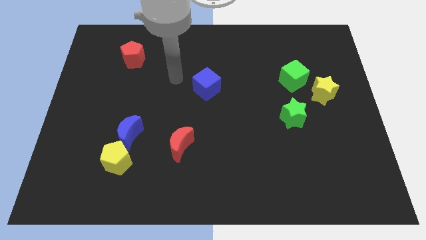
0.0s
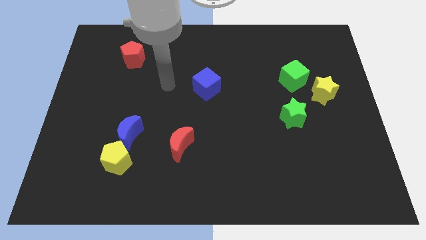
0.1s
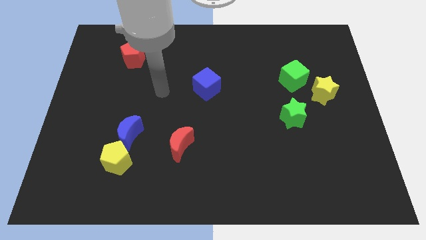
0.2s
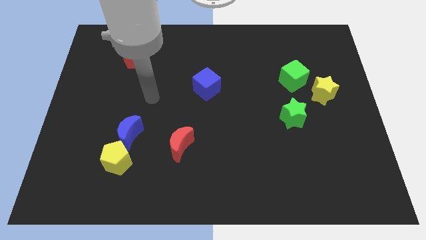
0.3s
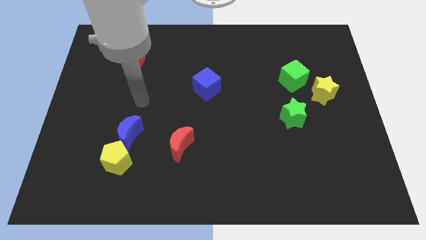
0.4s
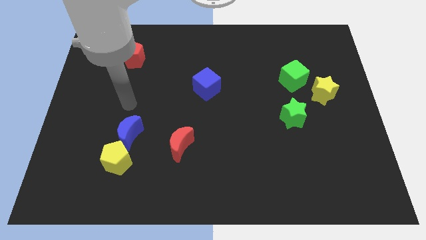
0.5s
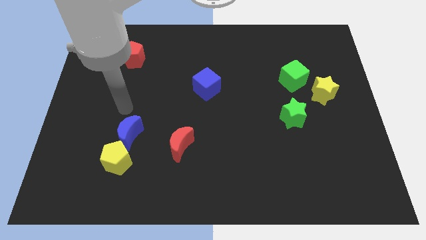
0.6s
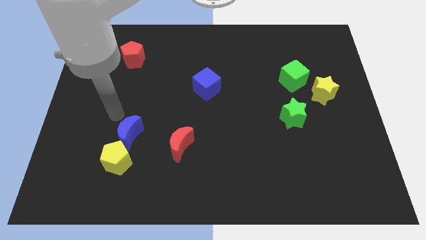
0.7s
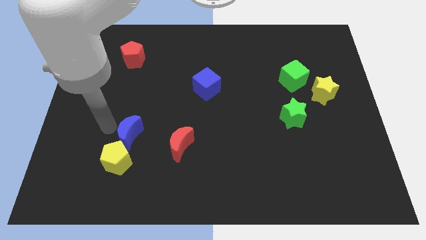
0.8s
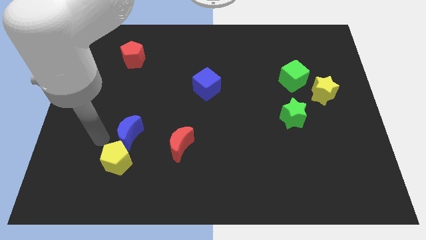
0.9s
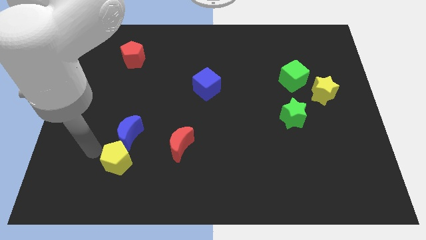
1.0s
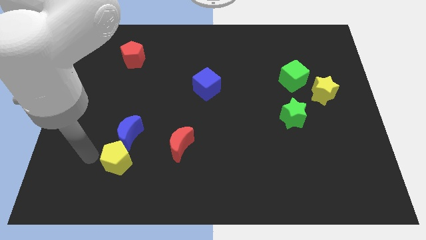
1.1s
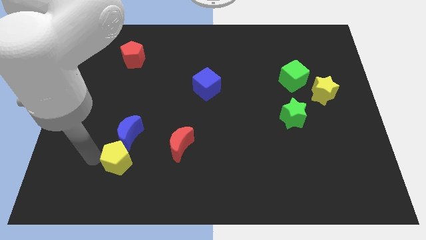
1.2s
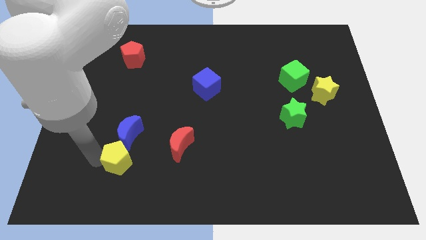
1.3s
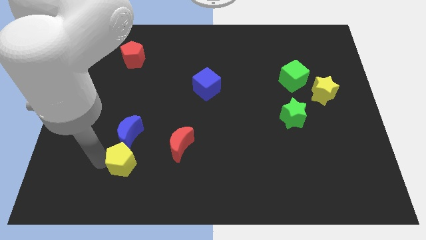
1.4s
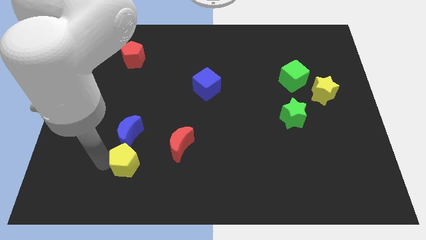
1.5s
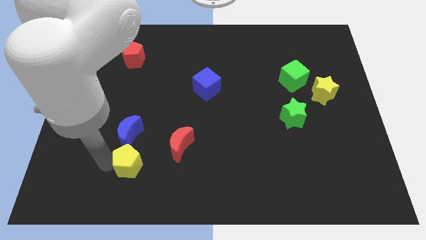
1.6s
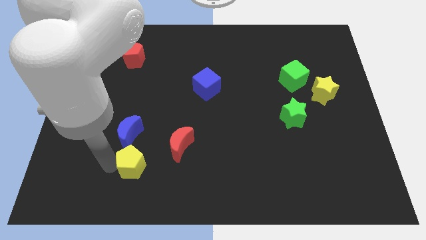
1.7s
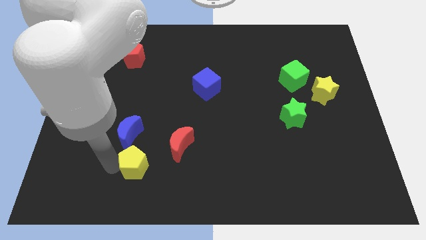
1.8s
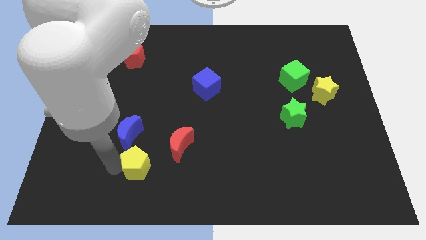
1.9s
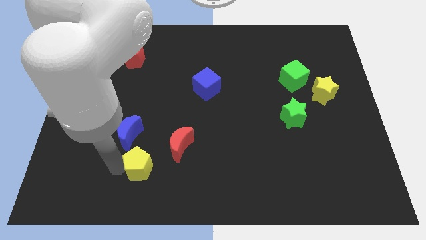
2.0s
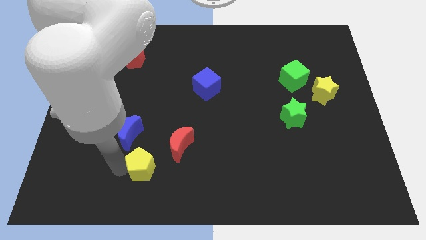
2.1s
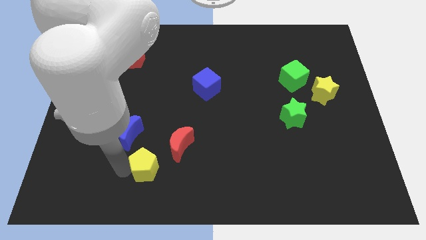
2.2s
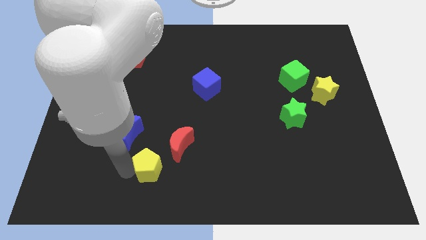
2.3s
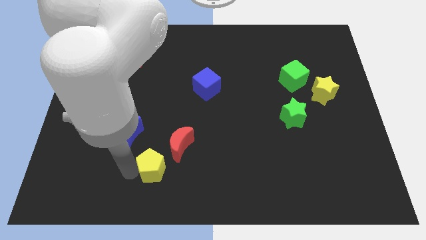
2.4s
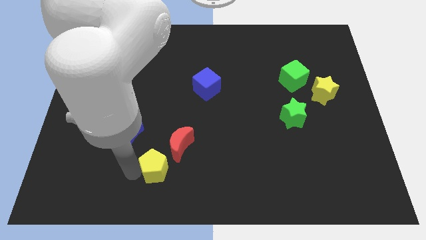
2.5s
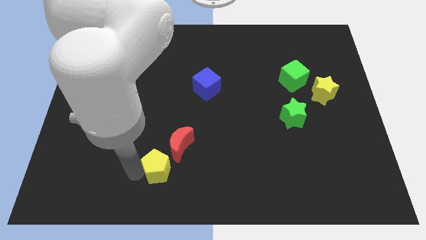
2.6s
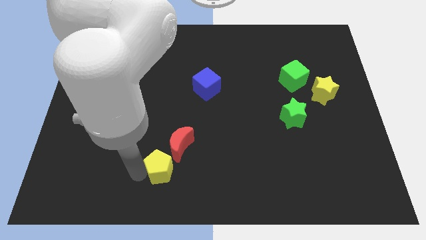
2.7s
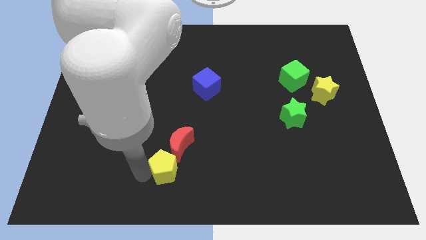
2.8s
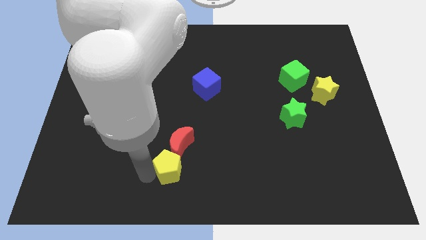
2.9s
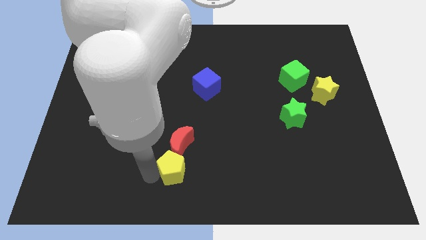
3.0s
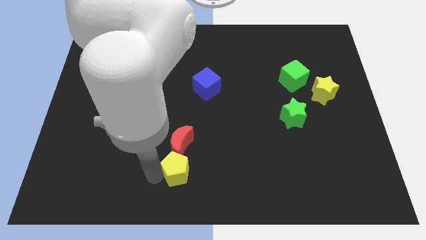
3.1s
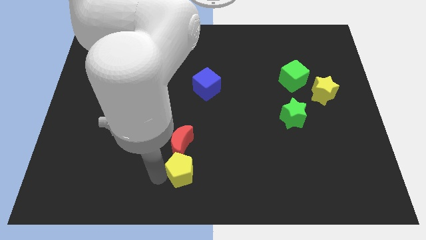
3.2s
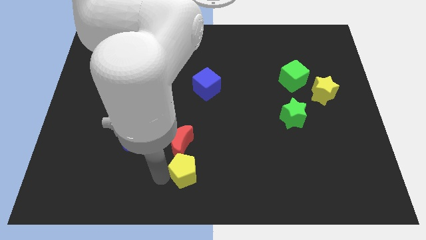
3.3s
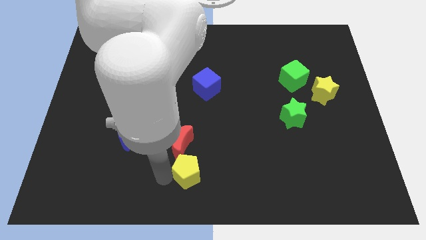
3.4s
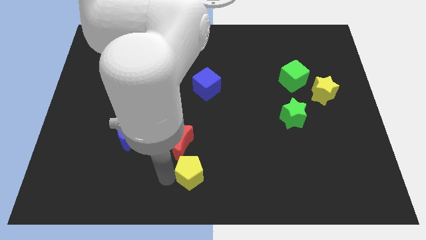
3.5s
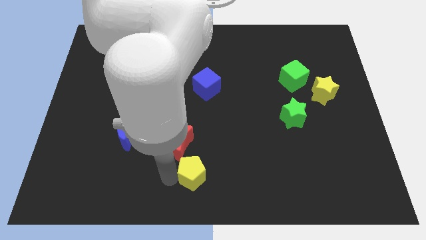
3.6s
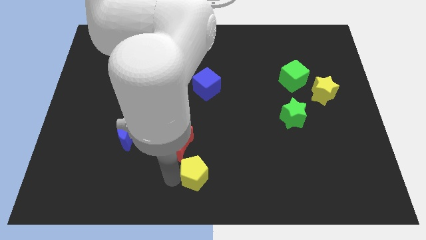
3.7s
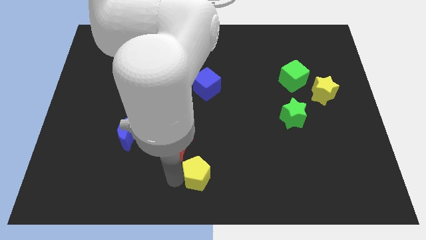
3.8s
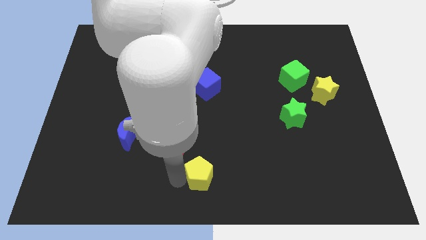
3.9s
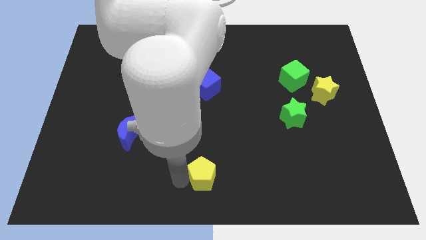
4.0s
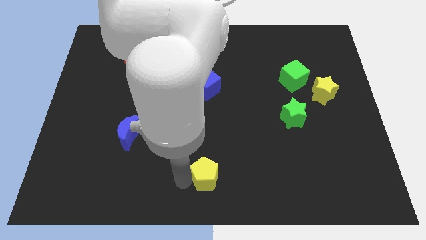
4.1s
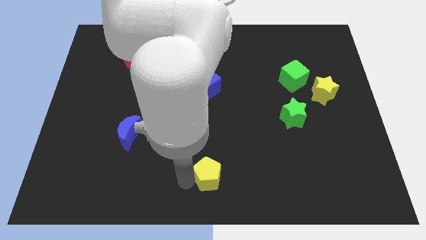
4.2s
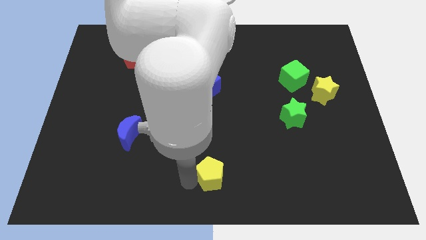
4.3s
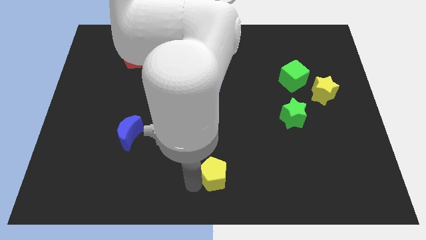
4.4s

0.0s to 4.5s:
push the yellow pentagon to the right

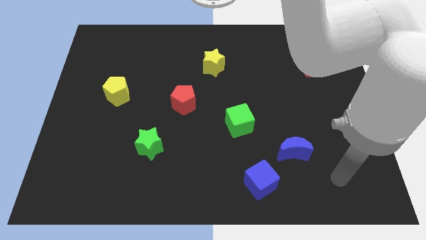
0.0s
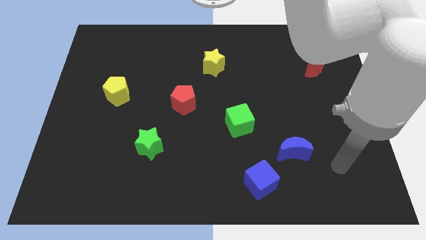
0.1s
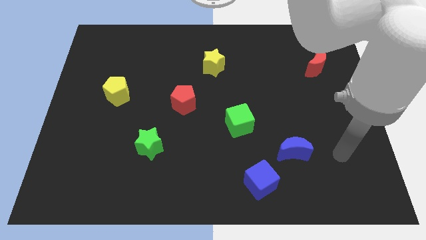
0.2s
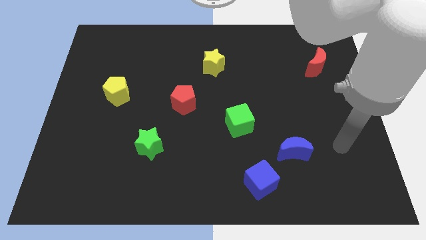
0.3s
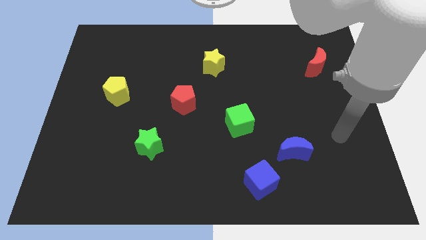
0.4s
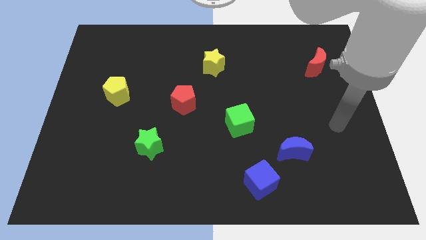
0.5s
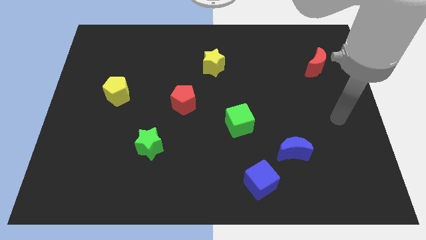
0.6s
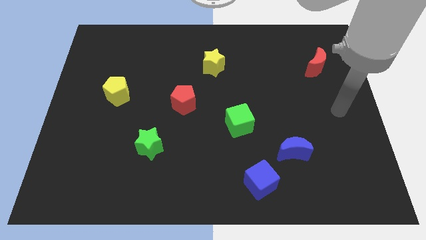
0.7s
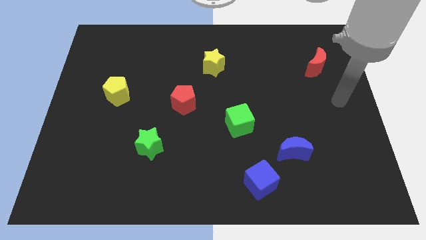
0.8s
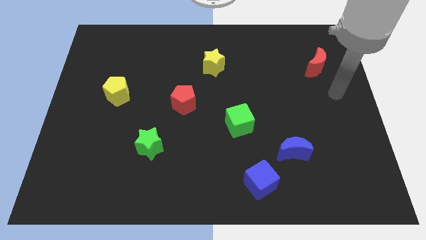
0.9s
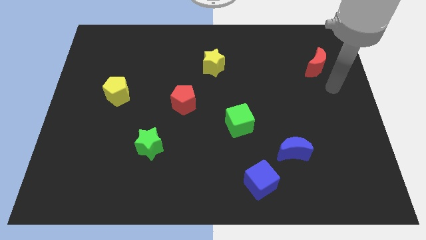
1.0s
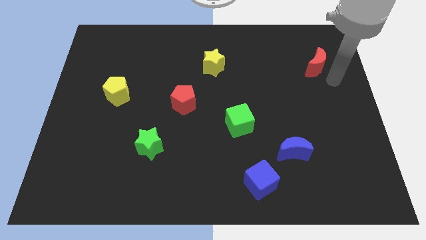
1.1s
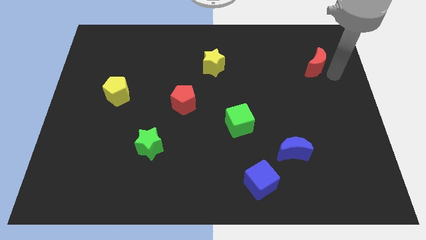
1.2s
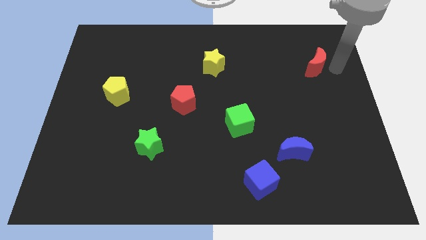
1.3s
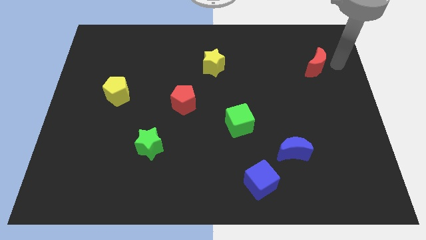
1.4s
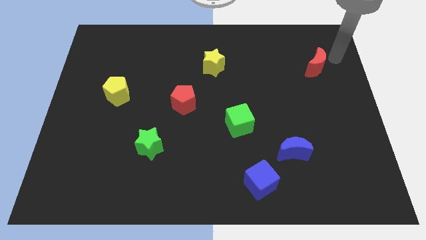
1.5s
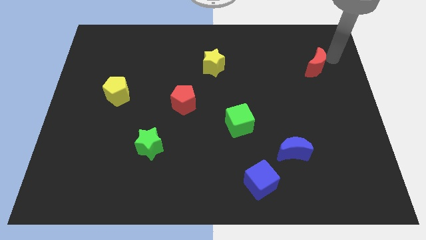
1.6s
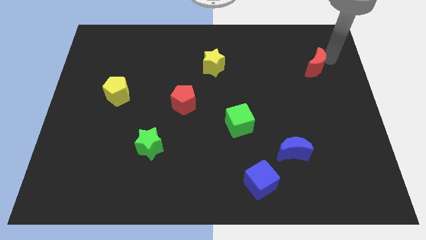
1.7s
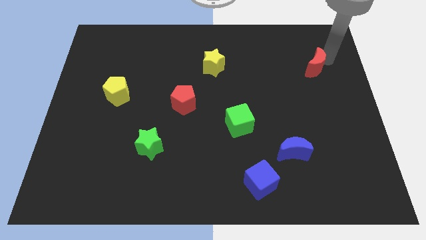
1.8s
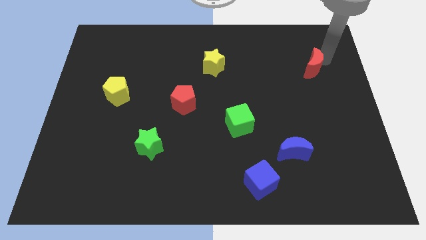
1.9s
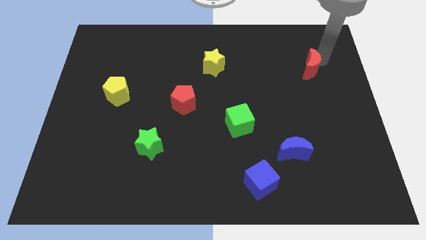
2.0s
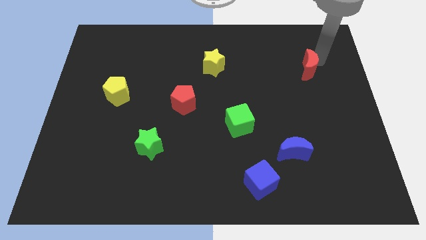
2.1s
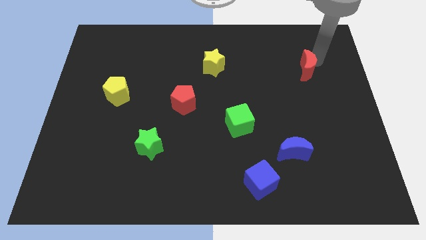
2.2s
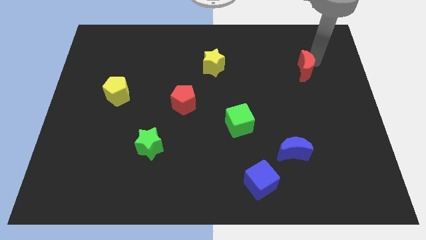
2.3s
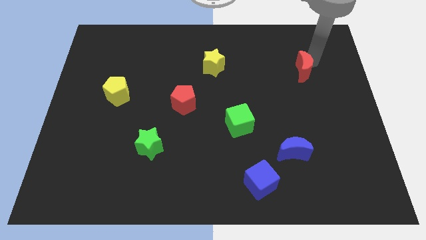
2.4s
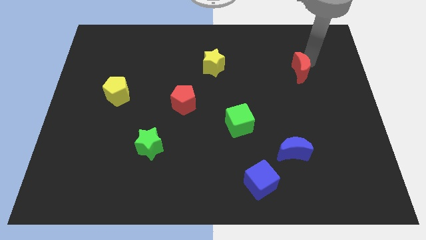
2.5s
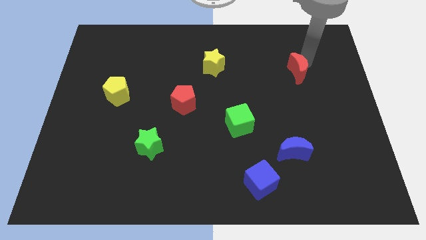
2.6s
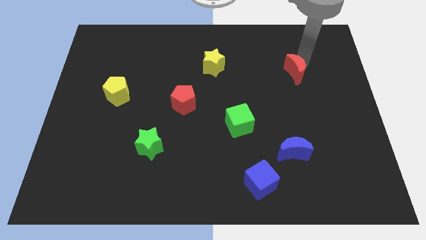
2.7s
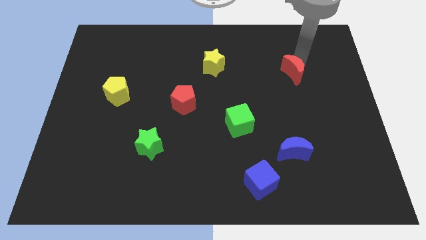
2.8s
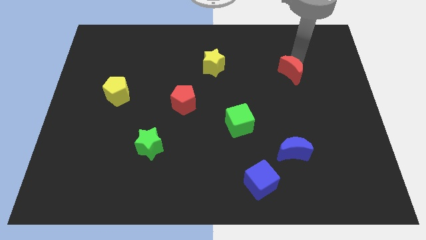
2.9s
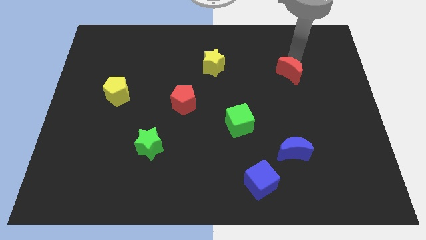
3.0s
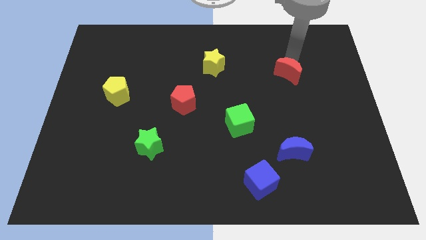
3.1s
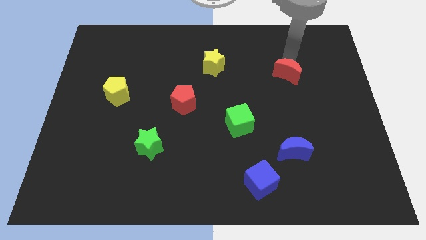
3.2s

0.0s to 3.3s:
slightly push the red moon down and then to the left

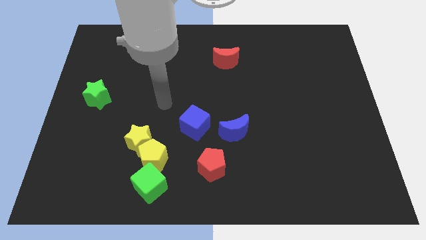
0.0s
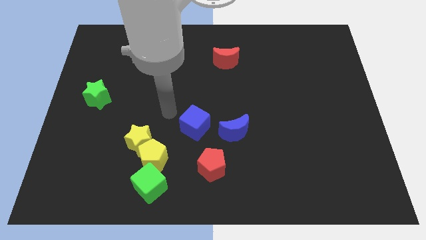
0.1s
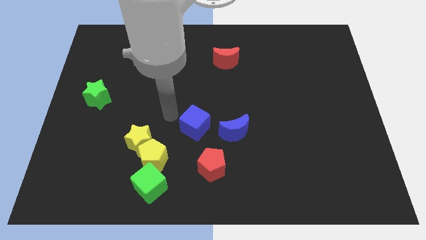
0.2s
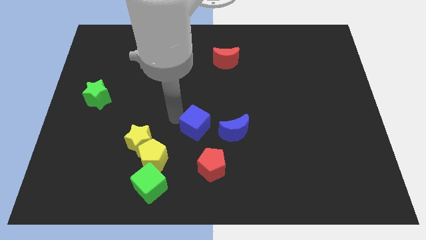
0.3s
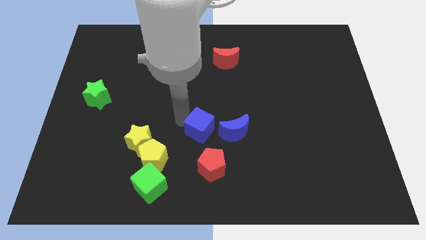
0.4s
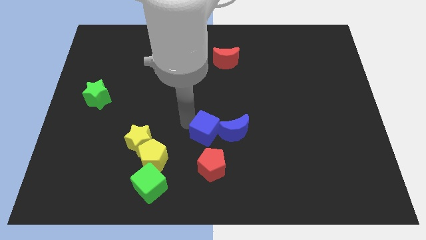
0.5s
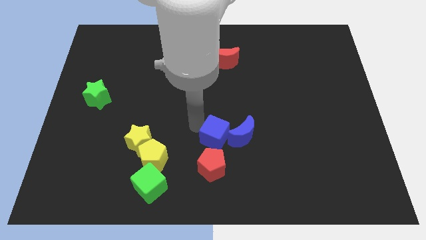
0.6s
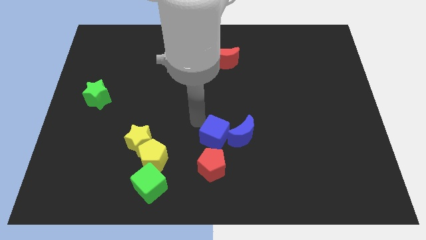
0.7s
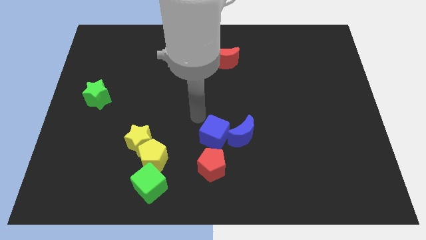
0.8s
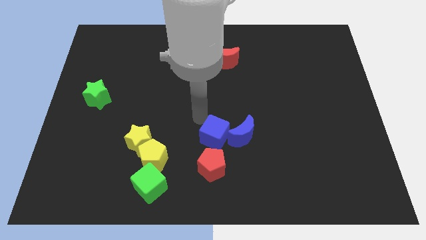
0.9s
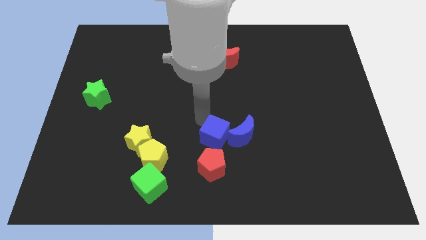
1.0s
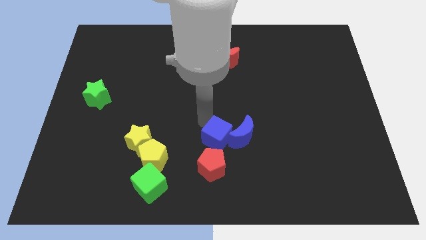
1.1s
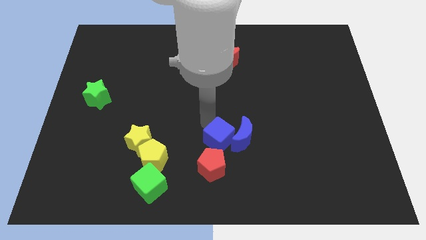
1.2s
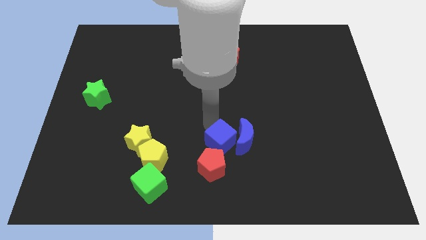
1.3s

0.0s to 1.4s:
push the blue cube down and to the right slightly
